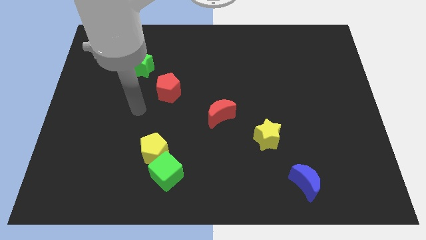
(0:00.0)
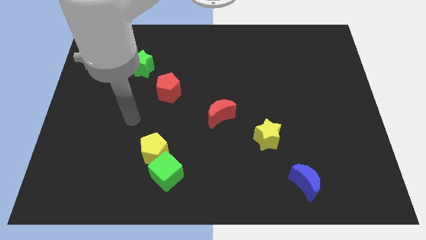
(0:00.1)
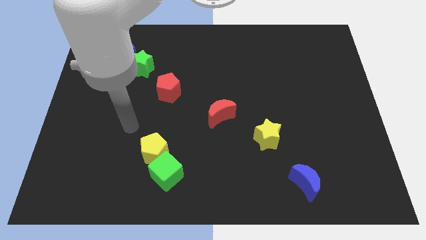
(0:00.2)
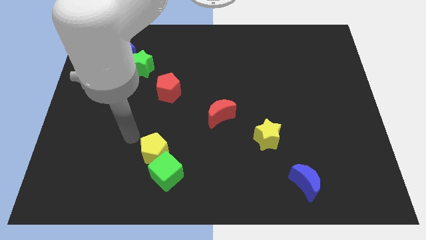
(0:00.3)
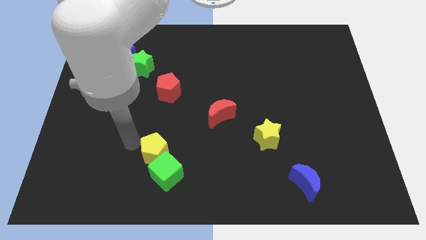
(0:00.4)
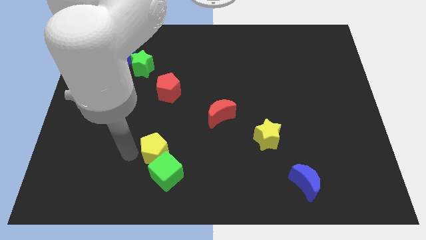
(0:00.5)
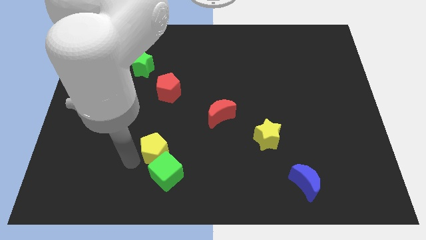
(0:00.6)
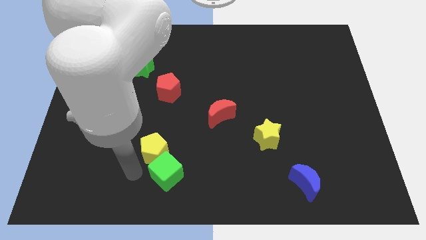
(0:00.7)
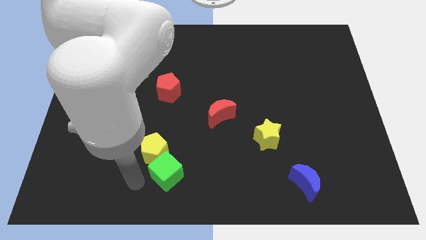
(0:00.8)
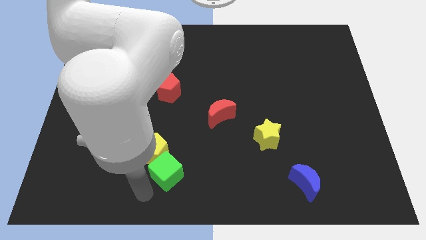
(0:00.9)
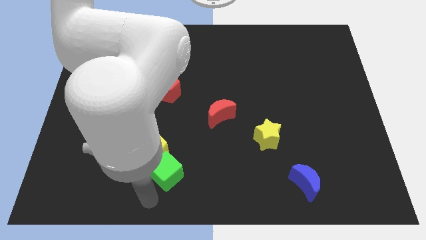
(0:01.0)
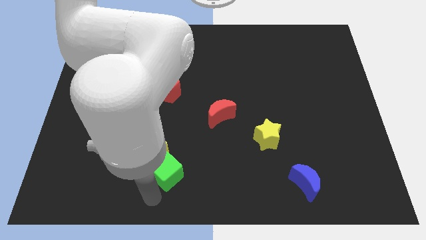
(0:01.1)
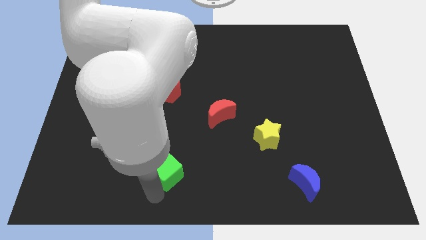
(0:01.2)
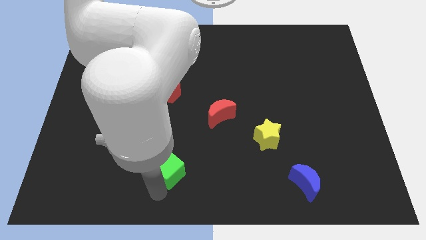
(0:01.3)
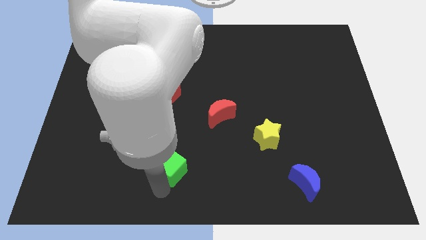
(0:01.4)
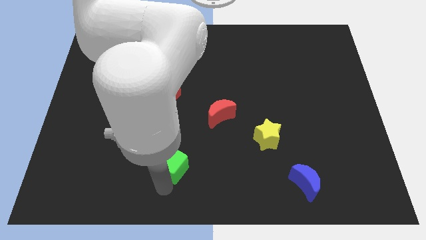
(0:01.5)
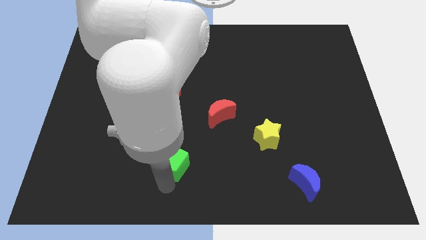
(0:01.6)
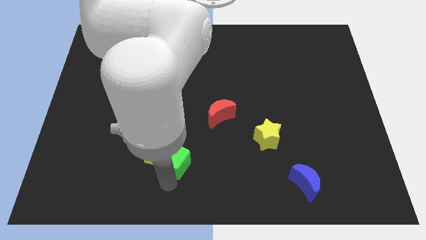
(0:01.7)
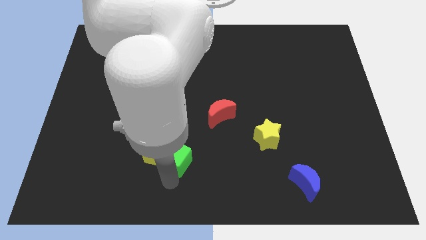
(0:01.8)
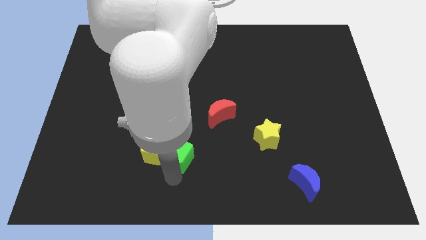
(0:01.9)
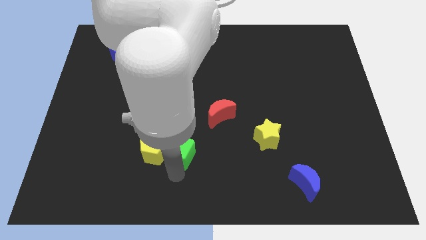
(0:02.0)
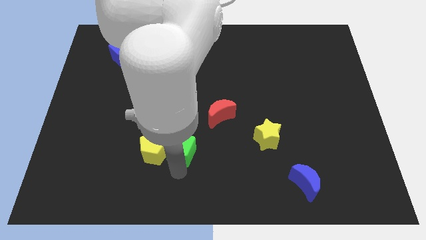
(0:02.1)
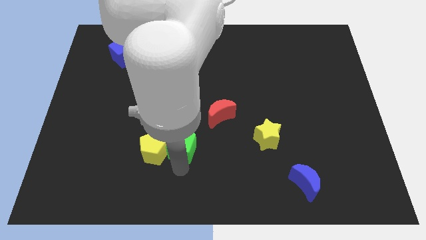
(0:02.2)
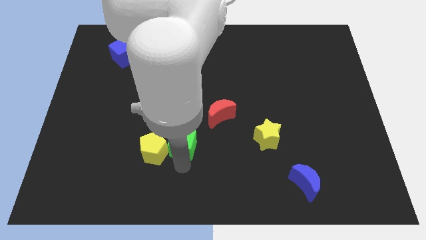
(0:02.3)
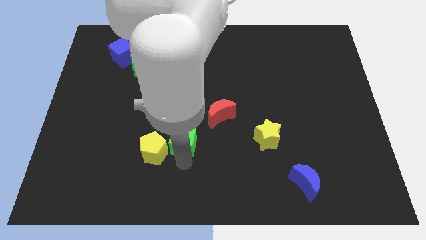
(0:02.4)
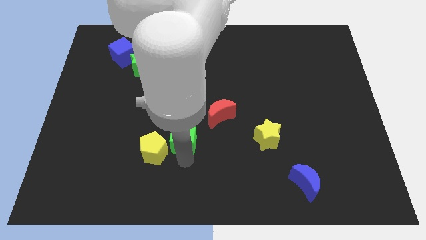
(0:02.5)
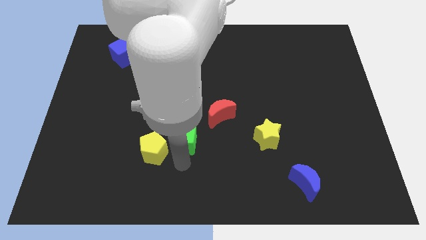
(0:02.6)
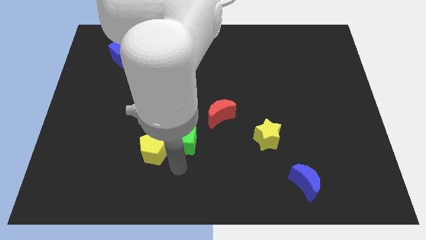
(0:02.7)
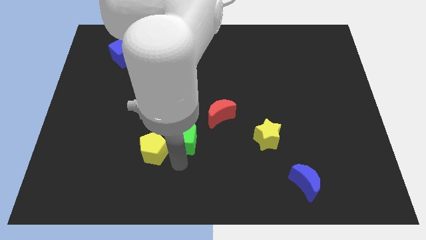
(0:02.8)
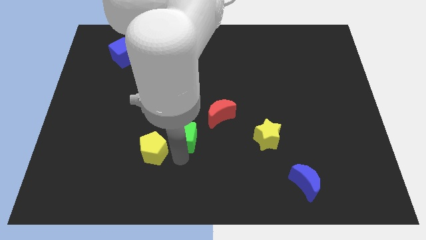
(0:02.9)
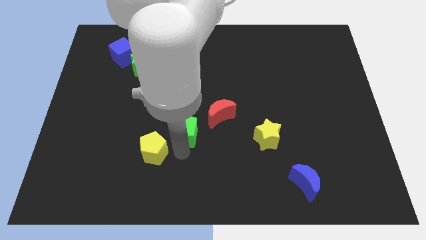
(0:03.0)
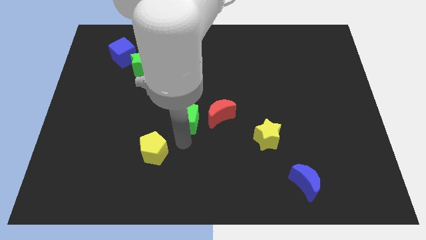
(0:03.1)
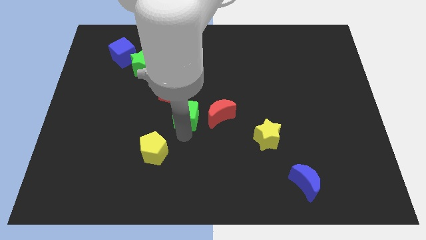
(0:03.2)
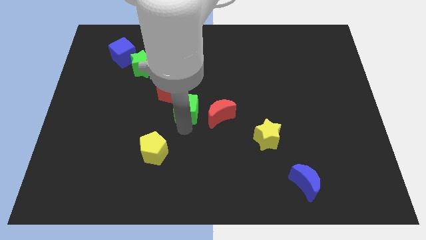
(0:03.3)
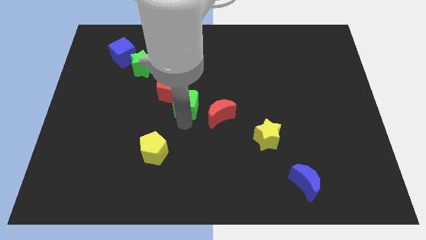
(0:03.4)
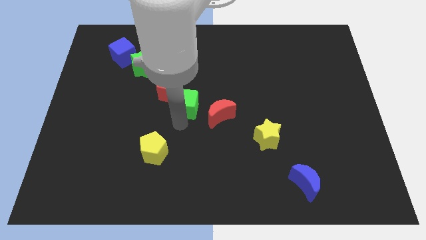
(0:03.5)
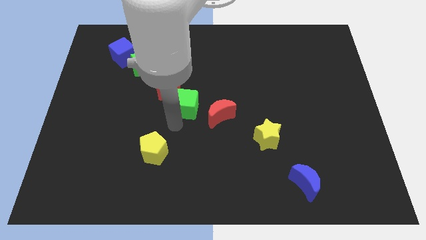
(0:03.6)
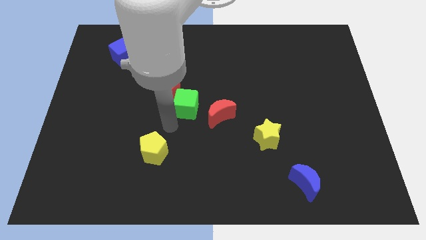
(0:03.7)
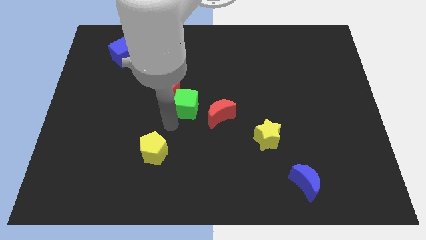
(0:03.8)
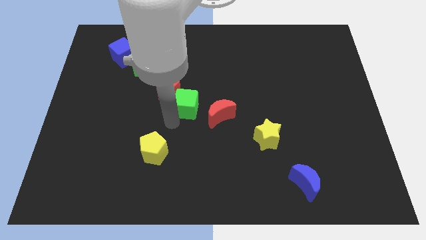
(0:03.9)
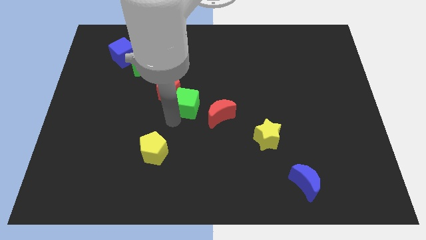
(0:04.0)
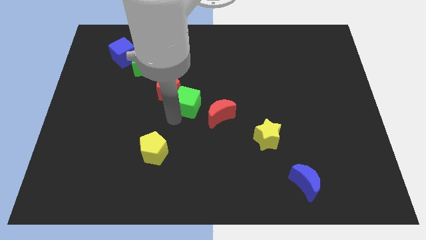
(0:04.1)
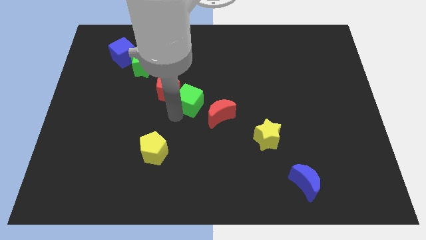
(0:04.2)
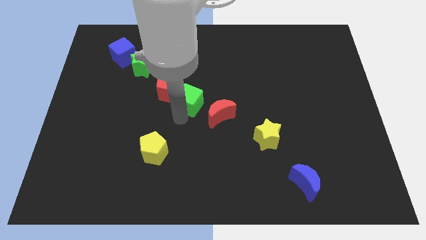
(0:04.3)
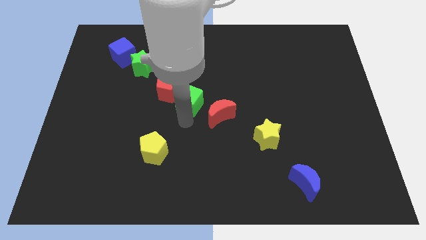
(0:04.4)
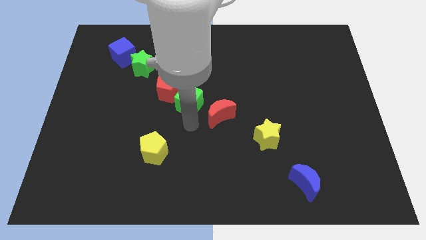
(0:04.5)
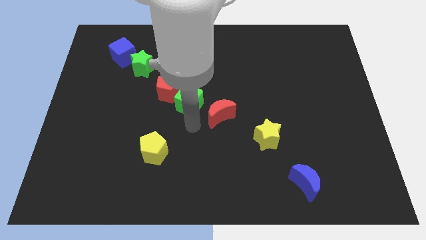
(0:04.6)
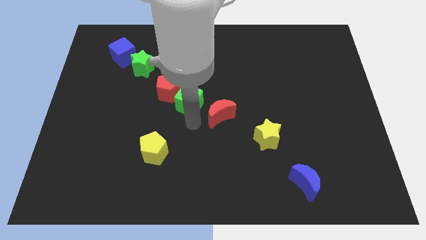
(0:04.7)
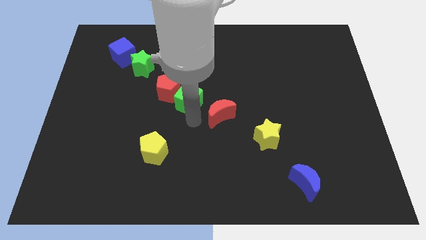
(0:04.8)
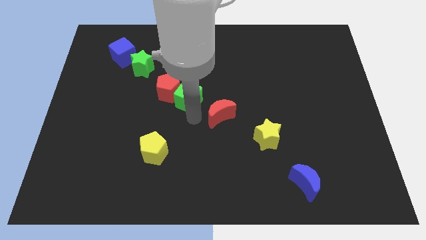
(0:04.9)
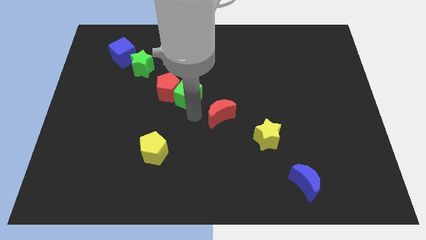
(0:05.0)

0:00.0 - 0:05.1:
push the green cube upwards

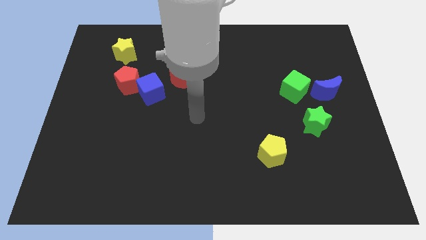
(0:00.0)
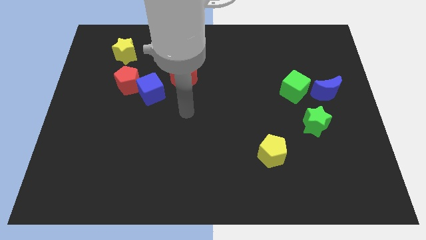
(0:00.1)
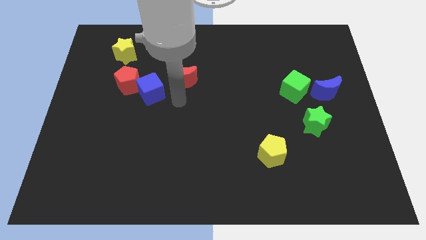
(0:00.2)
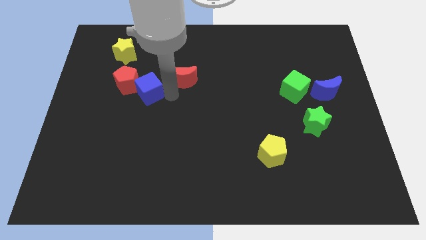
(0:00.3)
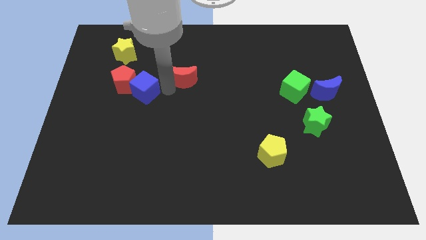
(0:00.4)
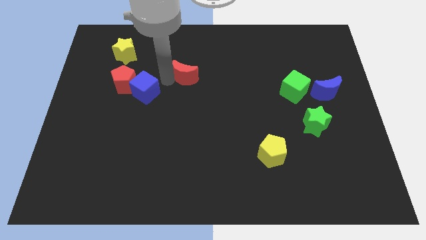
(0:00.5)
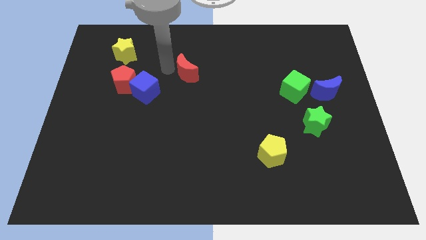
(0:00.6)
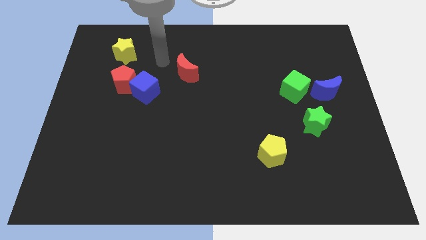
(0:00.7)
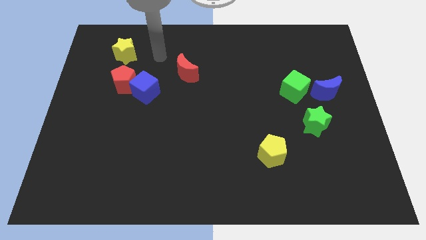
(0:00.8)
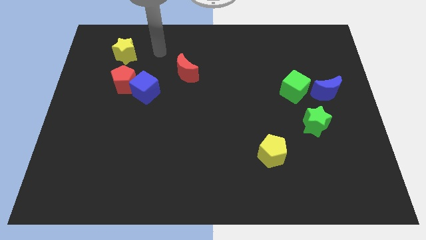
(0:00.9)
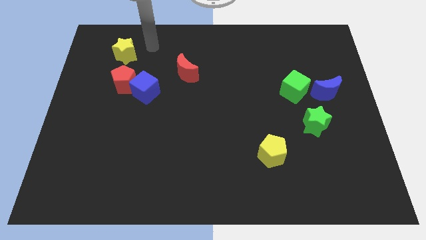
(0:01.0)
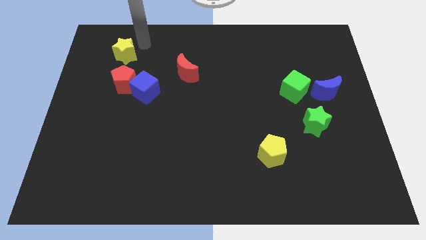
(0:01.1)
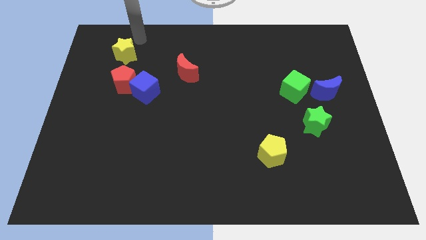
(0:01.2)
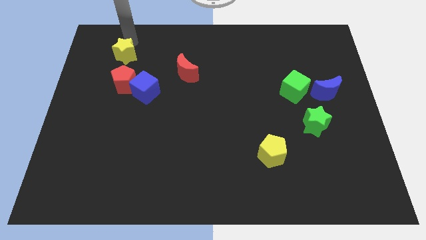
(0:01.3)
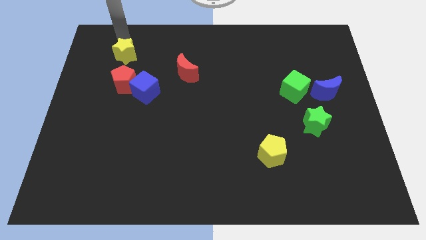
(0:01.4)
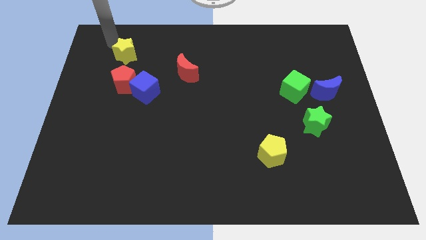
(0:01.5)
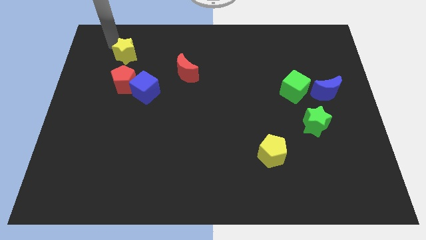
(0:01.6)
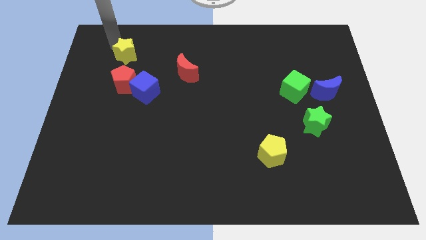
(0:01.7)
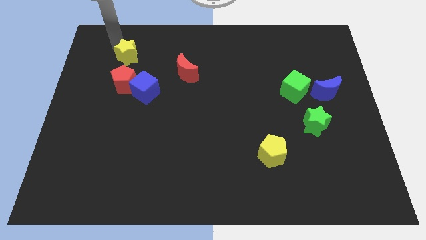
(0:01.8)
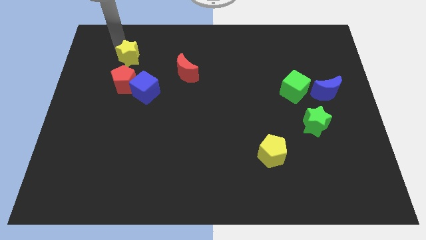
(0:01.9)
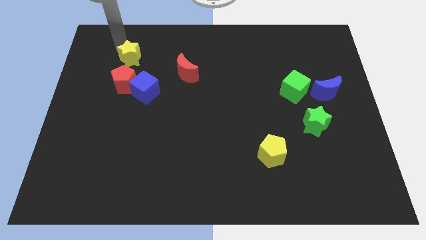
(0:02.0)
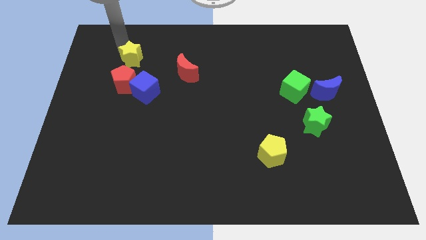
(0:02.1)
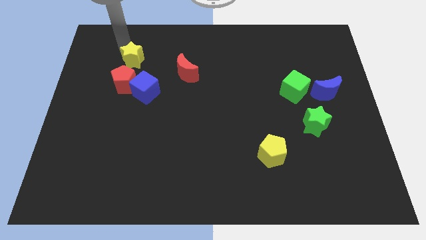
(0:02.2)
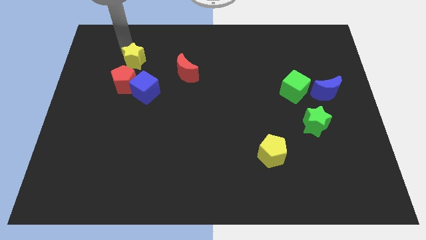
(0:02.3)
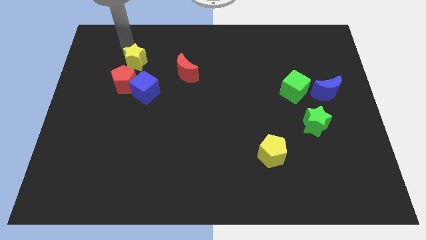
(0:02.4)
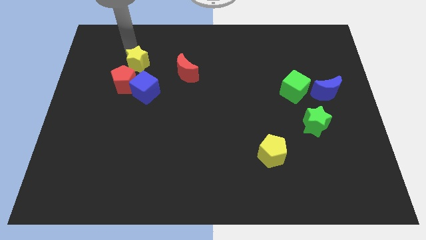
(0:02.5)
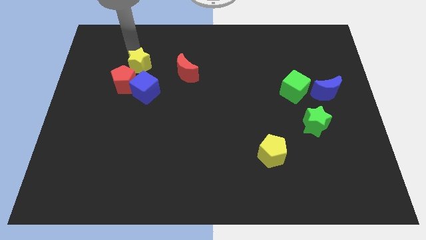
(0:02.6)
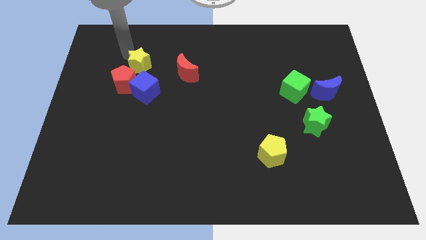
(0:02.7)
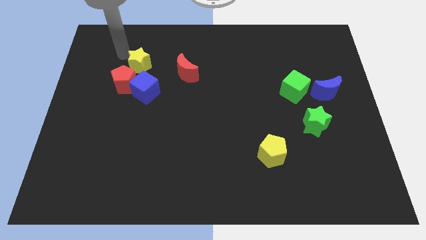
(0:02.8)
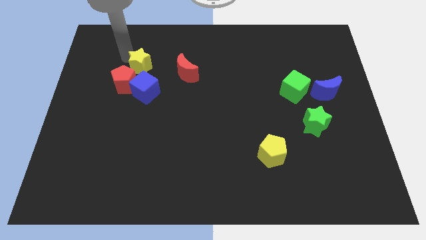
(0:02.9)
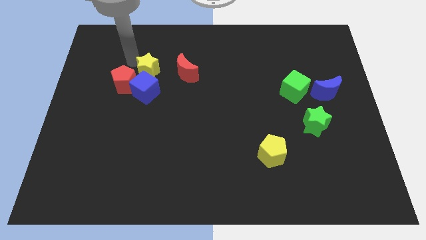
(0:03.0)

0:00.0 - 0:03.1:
push the yellow star a little bit downwards and right diagonally

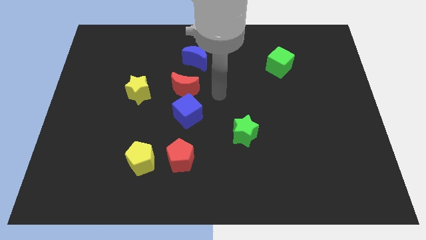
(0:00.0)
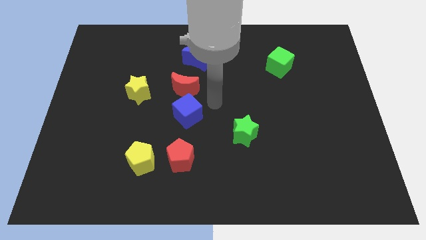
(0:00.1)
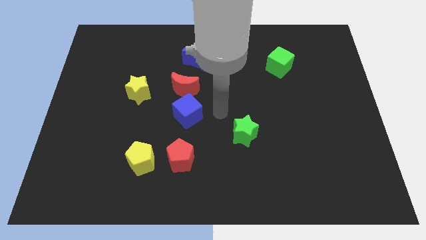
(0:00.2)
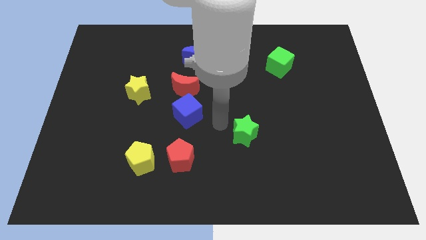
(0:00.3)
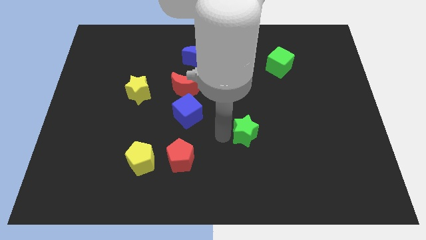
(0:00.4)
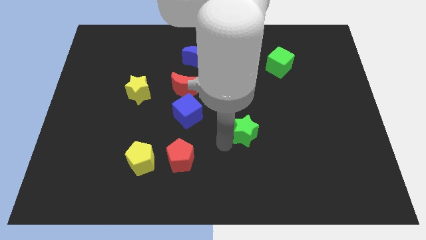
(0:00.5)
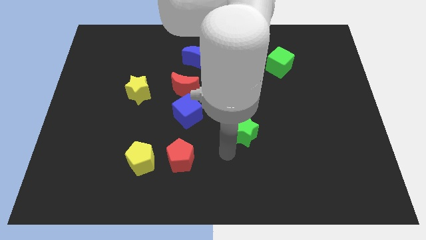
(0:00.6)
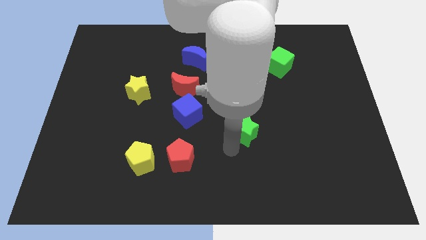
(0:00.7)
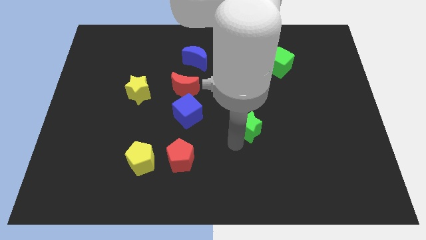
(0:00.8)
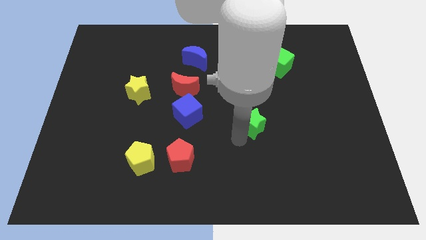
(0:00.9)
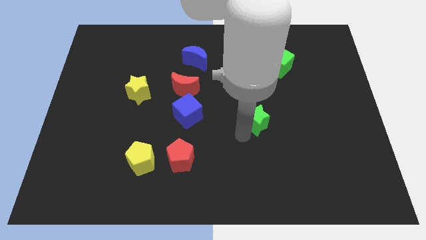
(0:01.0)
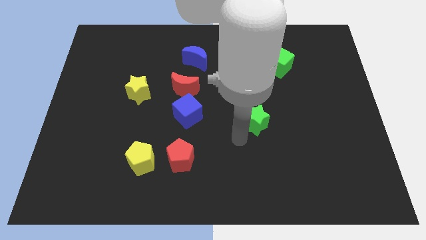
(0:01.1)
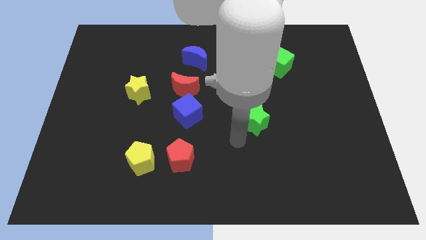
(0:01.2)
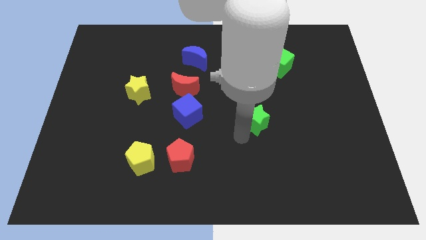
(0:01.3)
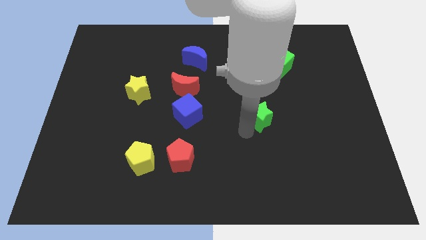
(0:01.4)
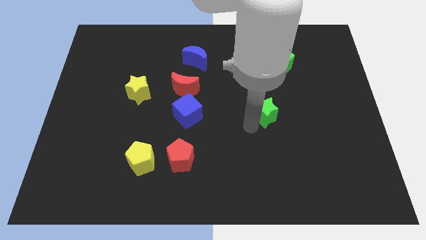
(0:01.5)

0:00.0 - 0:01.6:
slide the green star upwards and to the right a bit
